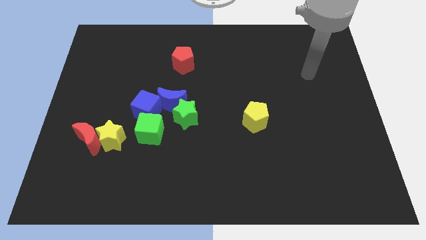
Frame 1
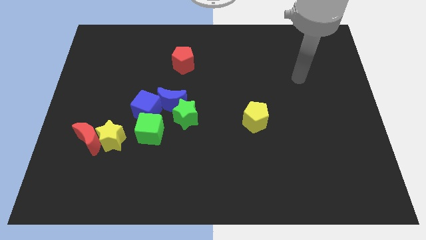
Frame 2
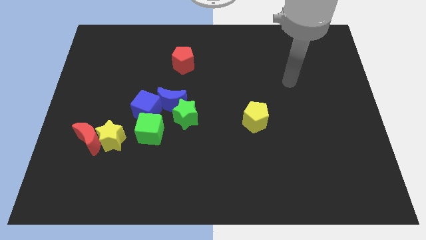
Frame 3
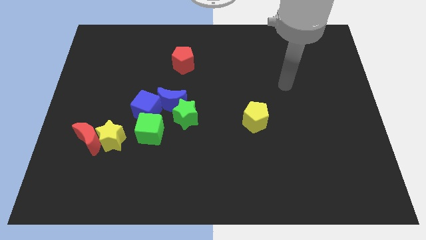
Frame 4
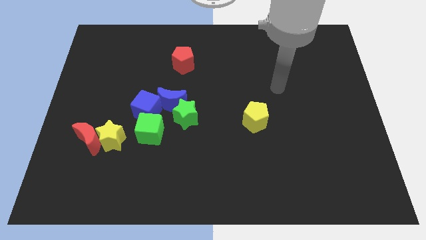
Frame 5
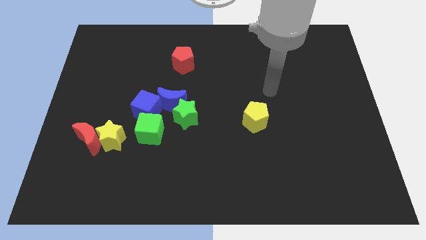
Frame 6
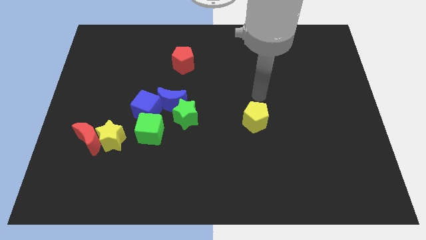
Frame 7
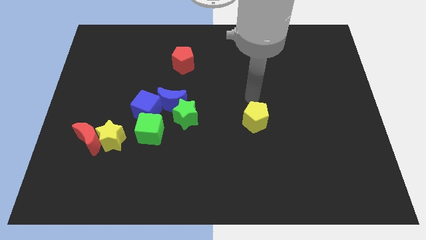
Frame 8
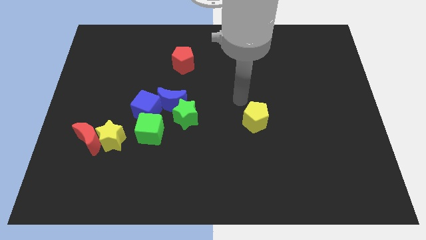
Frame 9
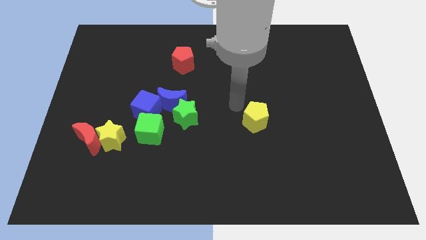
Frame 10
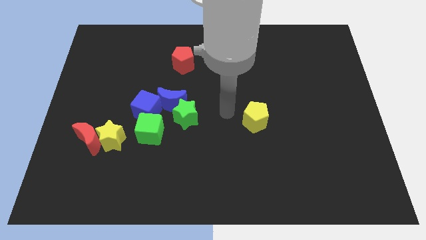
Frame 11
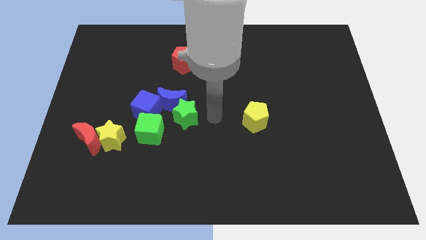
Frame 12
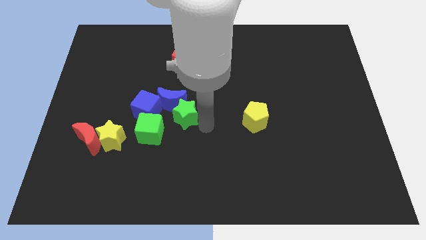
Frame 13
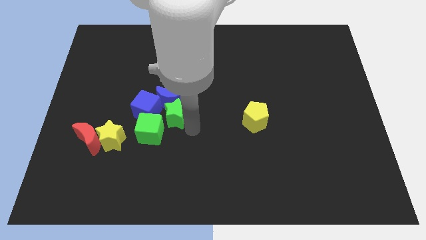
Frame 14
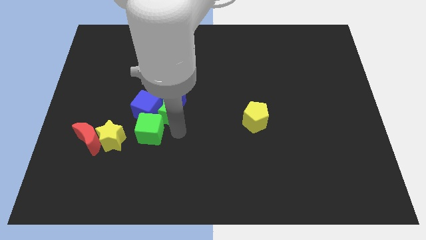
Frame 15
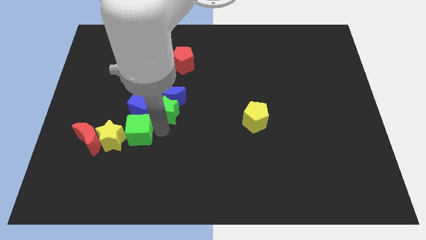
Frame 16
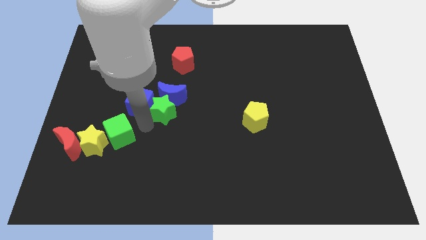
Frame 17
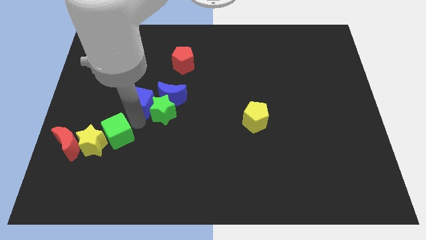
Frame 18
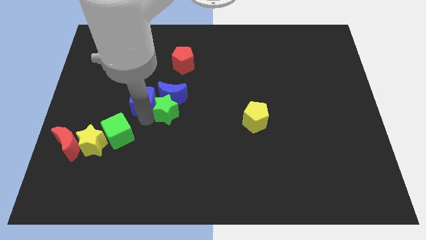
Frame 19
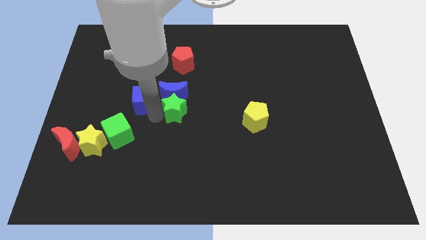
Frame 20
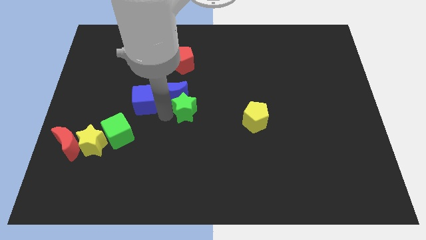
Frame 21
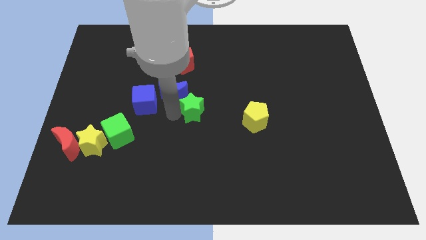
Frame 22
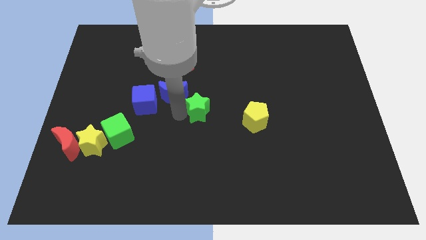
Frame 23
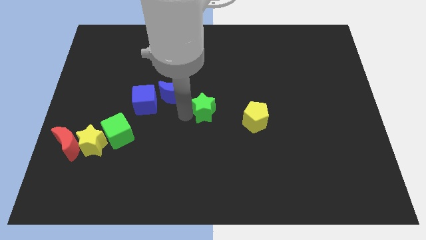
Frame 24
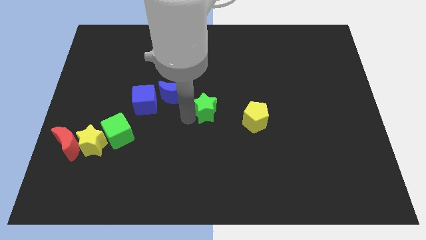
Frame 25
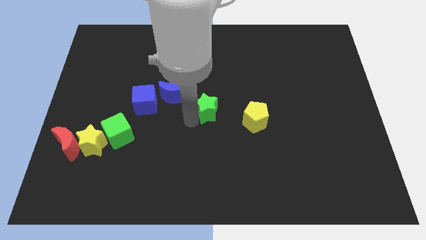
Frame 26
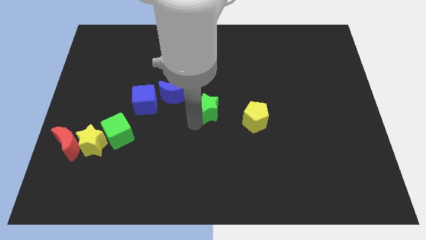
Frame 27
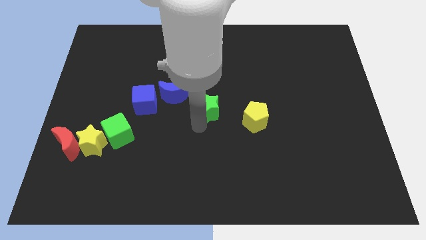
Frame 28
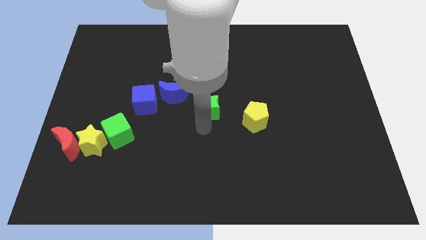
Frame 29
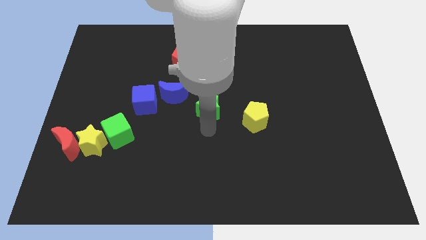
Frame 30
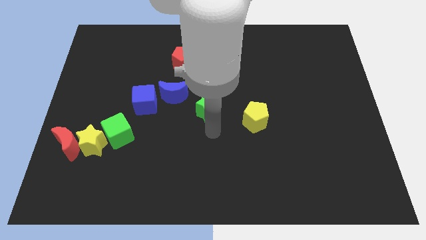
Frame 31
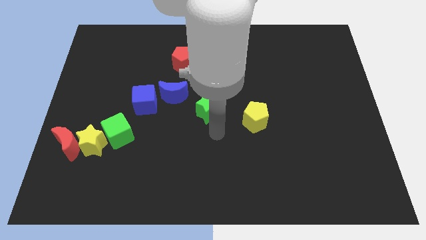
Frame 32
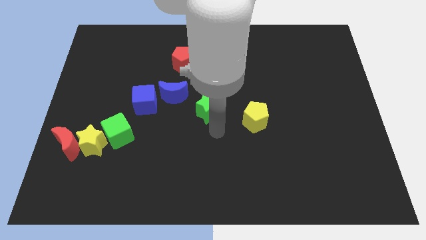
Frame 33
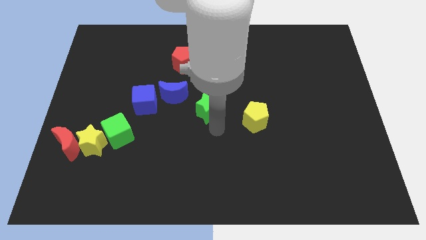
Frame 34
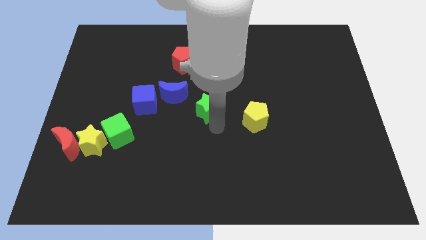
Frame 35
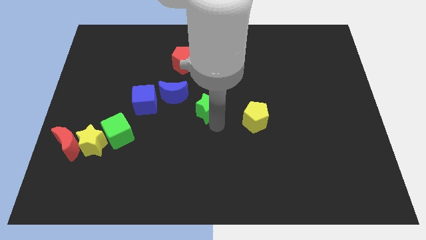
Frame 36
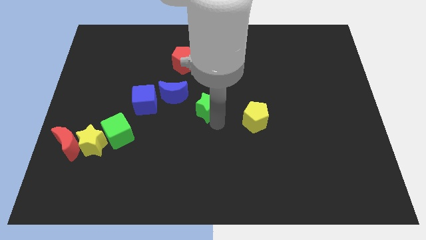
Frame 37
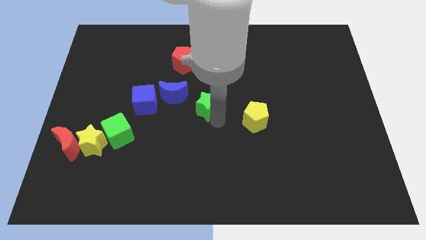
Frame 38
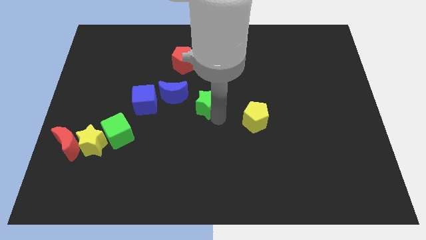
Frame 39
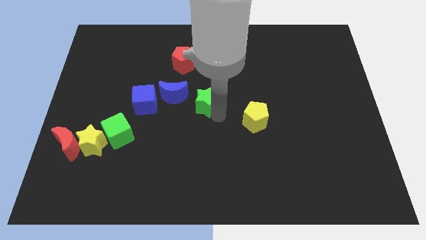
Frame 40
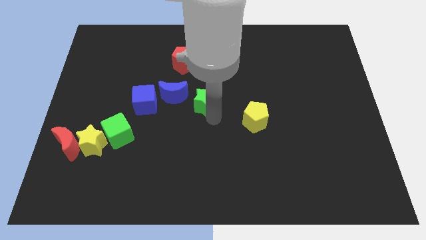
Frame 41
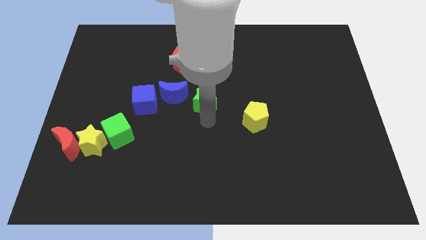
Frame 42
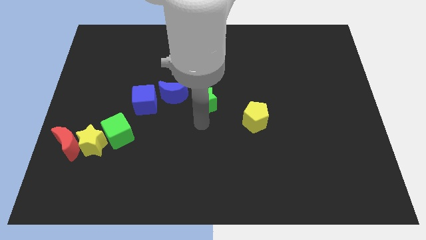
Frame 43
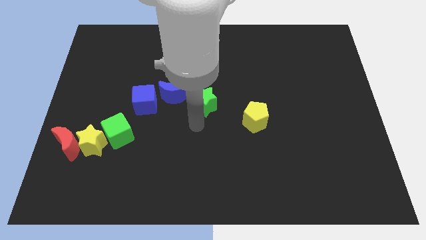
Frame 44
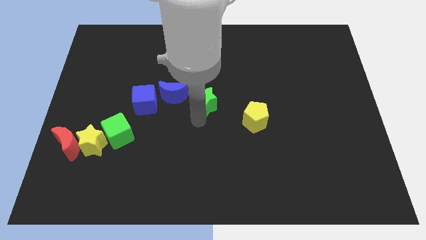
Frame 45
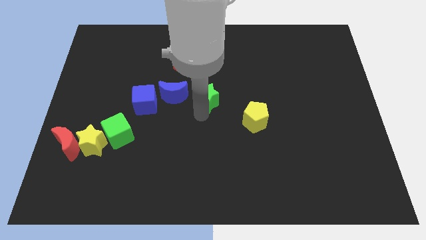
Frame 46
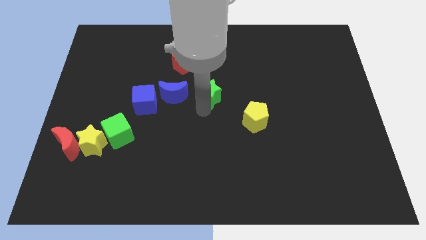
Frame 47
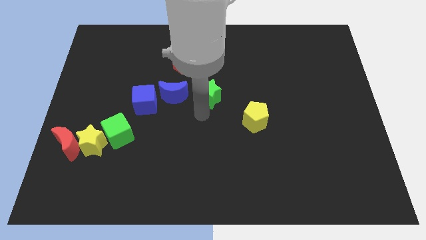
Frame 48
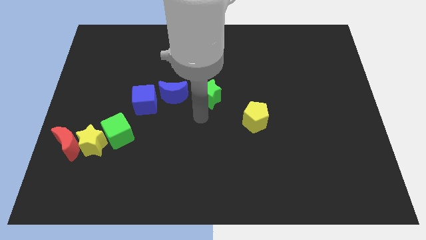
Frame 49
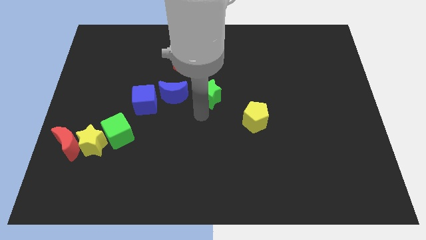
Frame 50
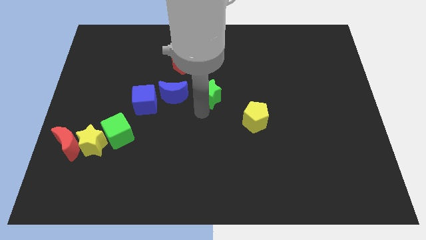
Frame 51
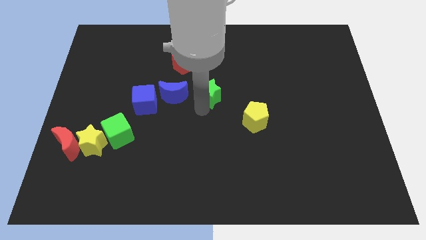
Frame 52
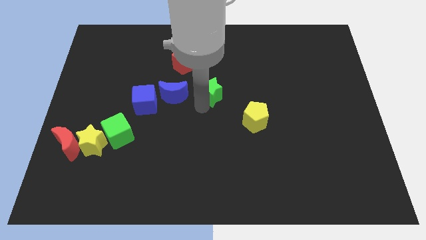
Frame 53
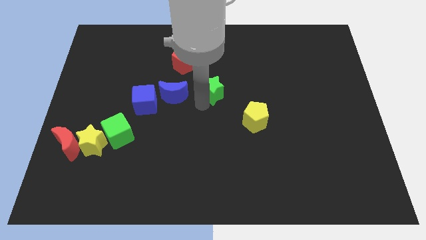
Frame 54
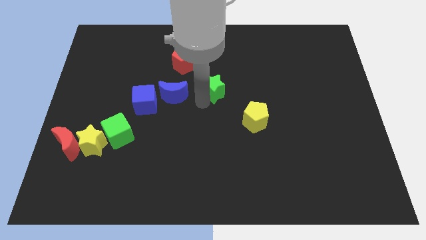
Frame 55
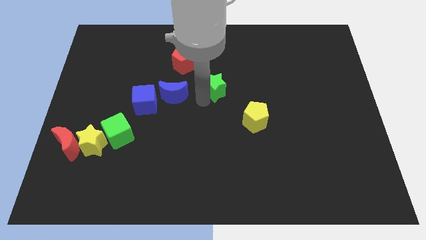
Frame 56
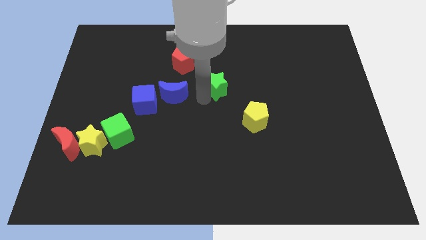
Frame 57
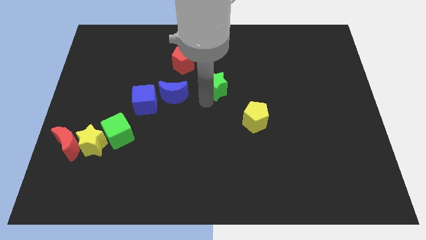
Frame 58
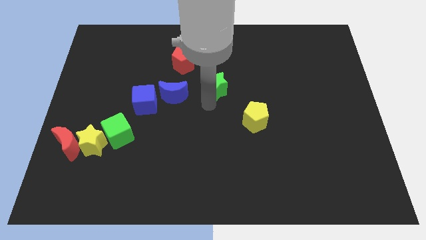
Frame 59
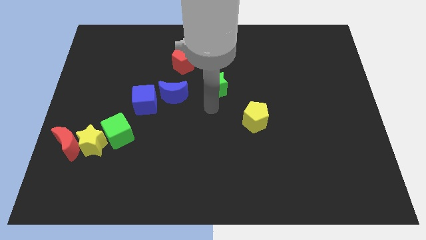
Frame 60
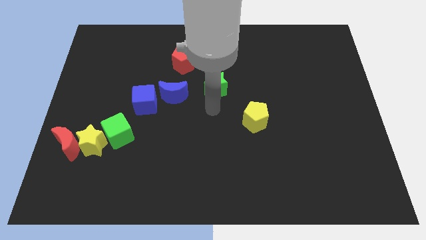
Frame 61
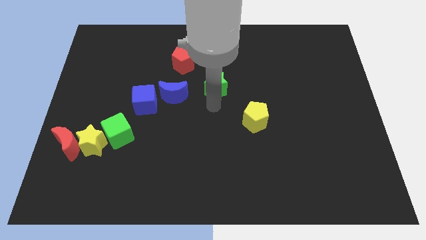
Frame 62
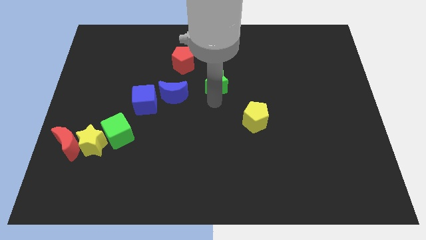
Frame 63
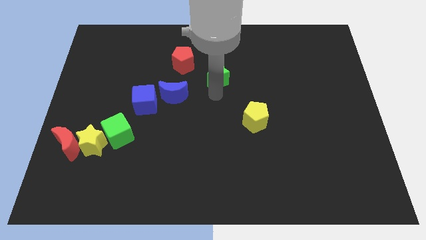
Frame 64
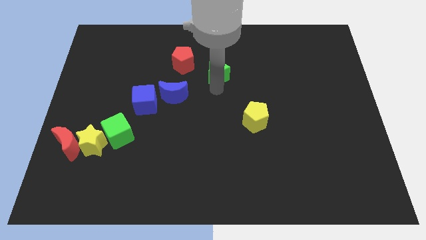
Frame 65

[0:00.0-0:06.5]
slide the green star just right of the red pentagon
